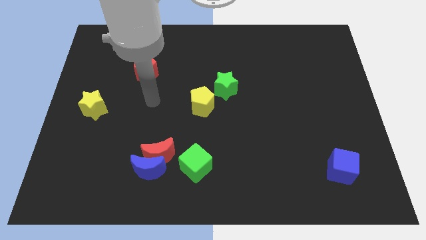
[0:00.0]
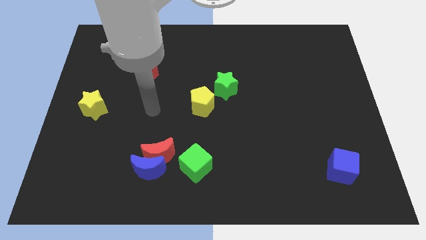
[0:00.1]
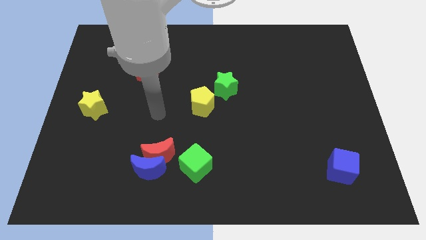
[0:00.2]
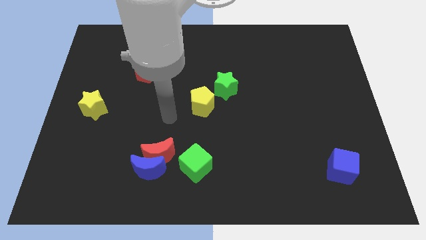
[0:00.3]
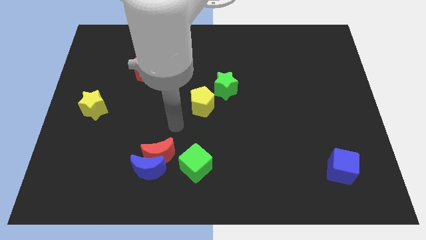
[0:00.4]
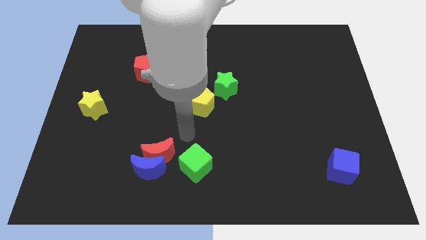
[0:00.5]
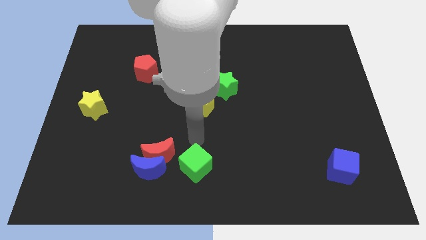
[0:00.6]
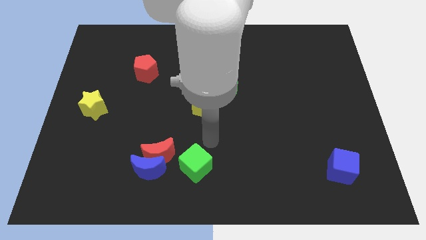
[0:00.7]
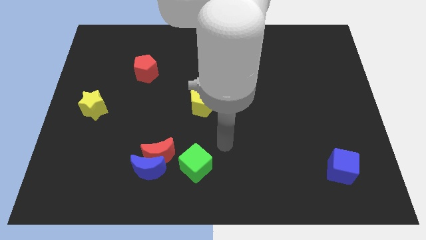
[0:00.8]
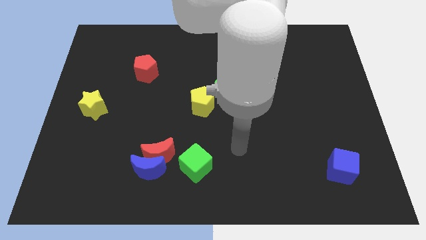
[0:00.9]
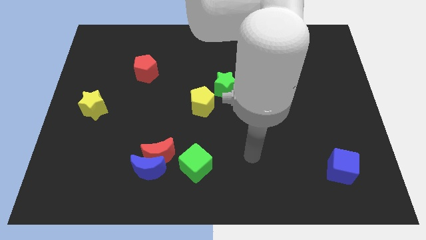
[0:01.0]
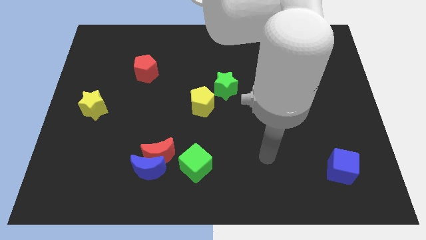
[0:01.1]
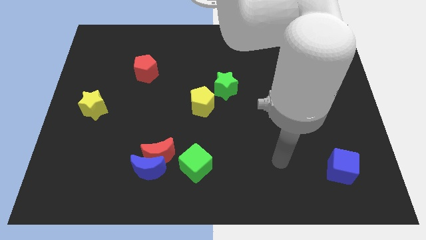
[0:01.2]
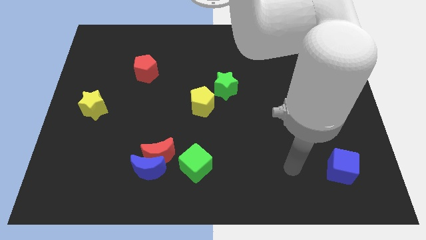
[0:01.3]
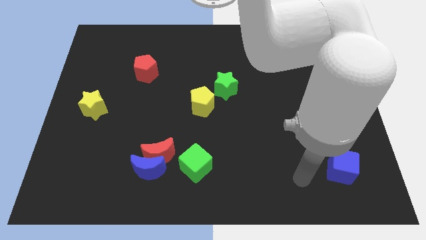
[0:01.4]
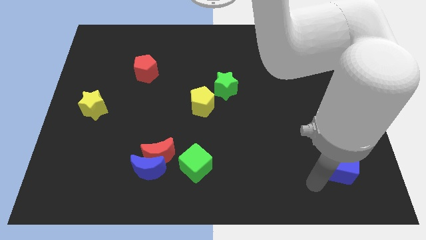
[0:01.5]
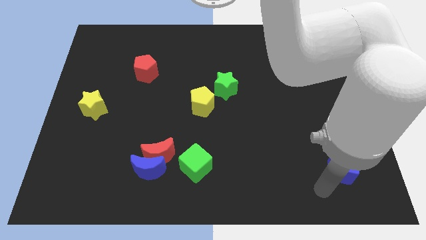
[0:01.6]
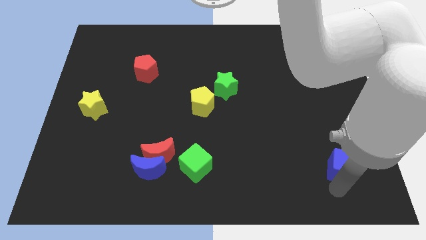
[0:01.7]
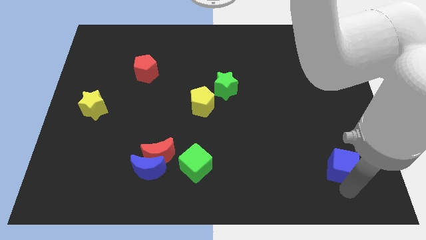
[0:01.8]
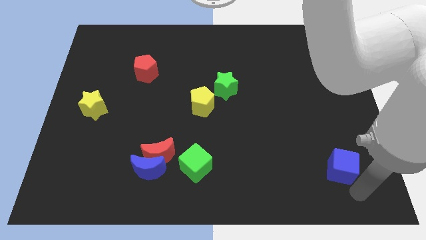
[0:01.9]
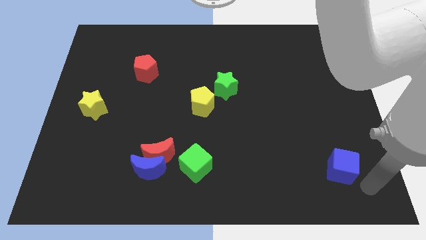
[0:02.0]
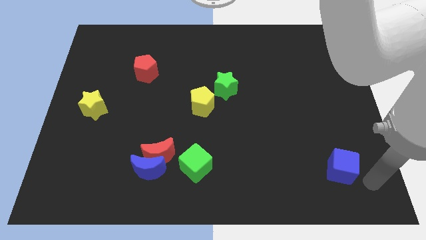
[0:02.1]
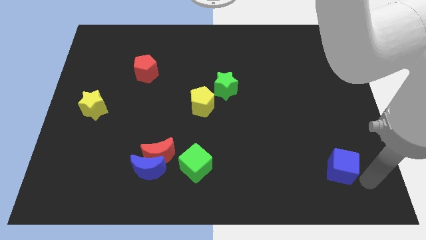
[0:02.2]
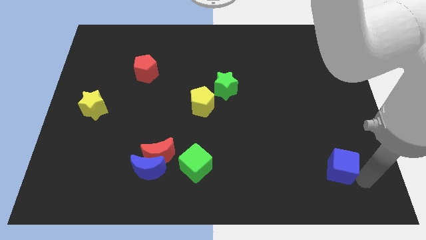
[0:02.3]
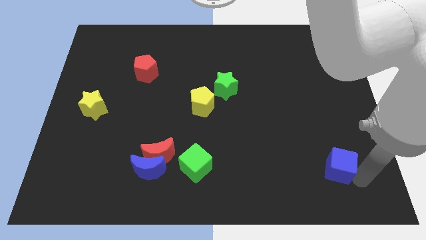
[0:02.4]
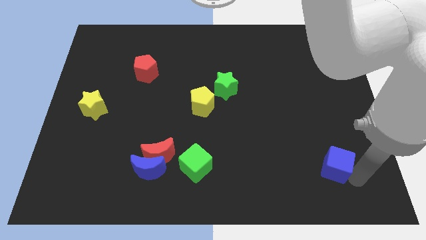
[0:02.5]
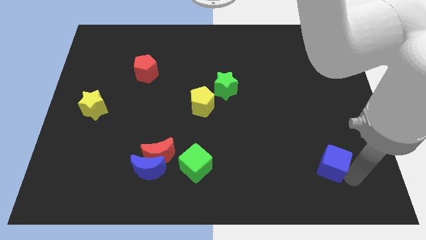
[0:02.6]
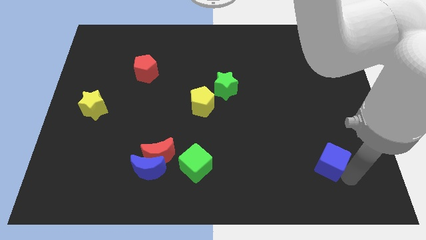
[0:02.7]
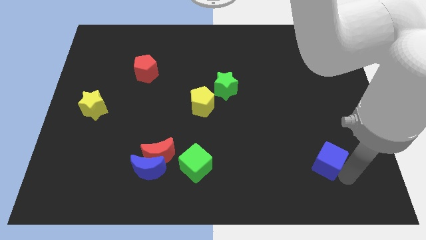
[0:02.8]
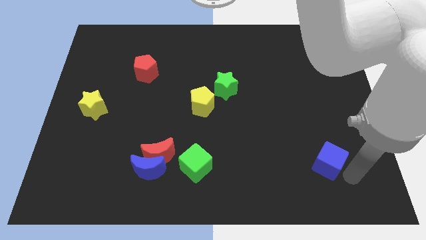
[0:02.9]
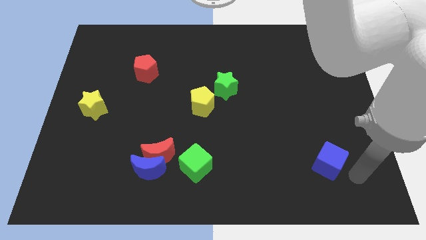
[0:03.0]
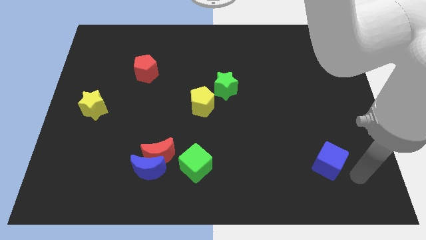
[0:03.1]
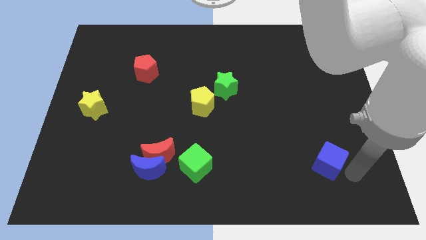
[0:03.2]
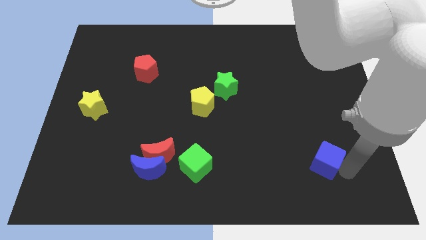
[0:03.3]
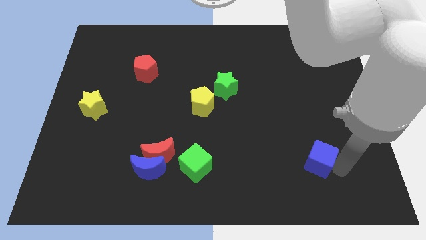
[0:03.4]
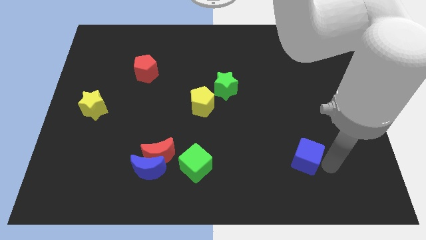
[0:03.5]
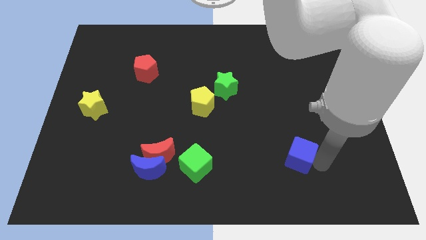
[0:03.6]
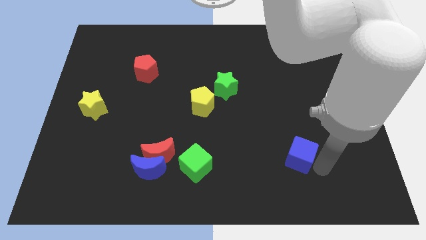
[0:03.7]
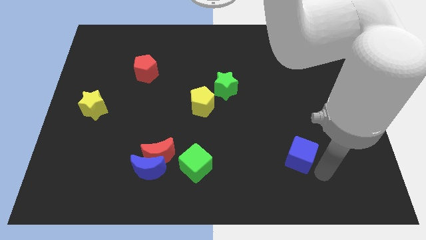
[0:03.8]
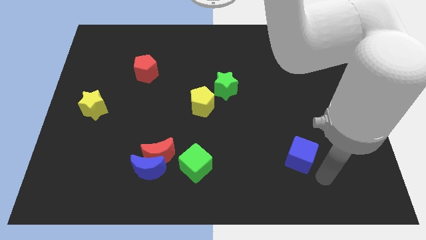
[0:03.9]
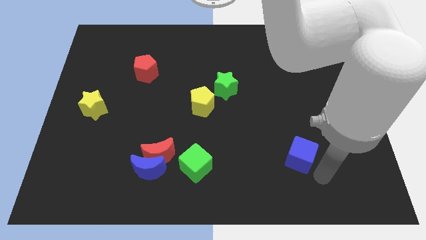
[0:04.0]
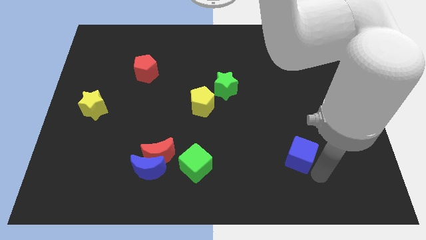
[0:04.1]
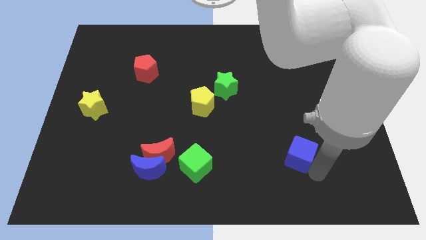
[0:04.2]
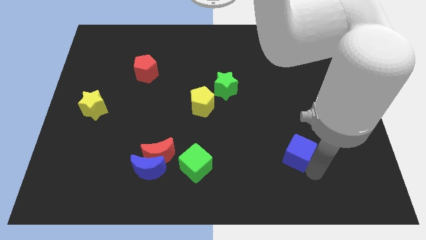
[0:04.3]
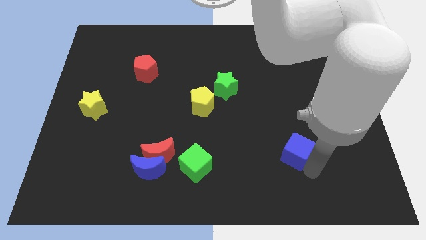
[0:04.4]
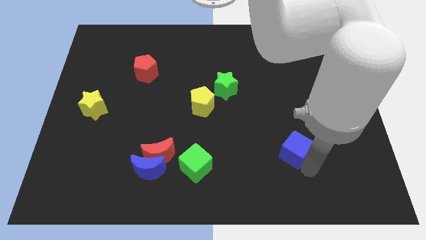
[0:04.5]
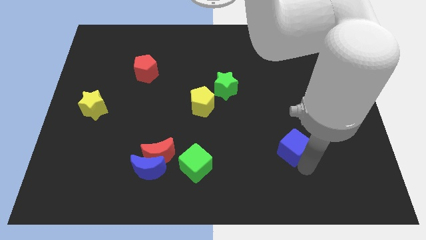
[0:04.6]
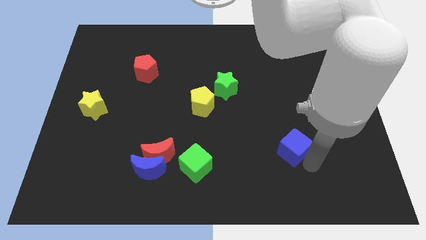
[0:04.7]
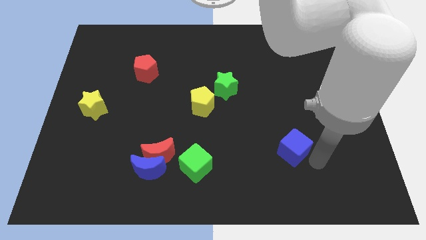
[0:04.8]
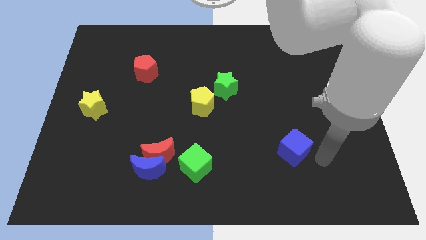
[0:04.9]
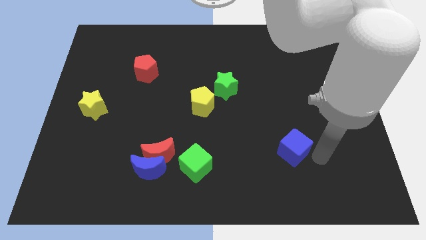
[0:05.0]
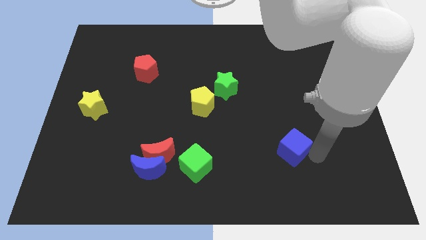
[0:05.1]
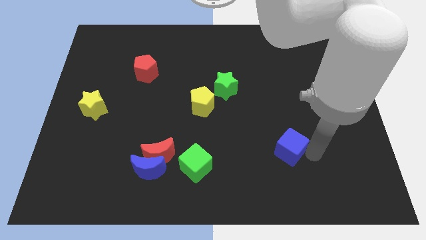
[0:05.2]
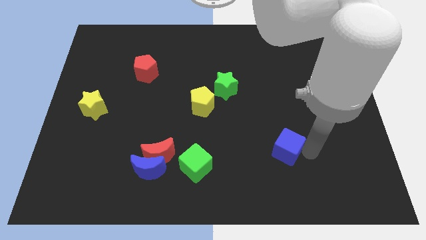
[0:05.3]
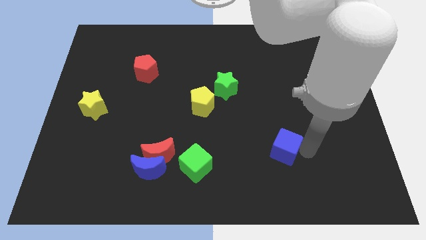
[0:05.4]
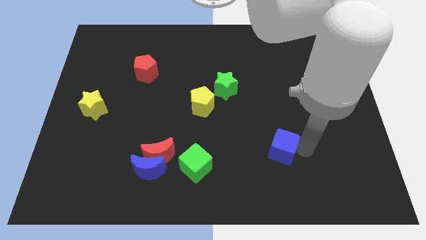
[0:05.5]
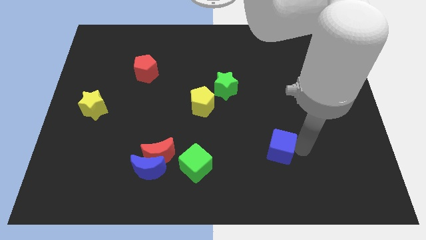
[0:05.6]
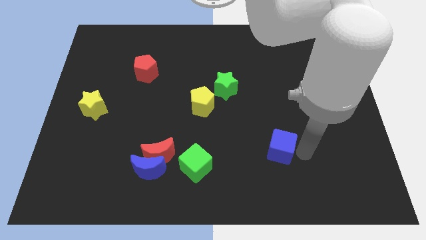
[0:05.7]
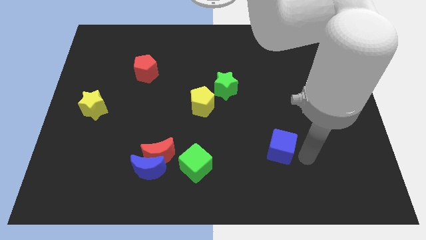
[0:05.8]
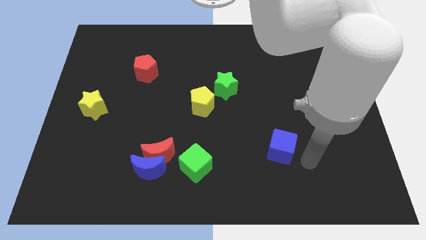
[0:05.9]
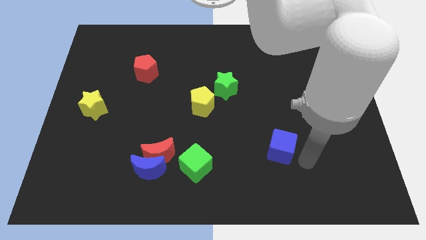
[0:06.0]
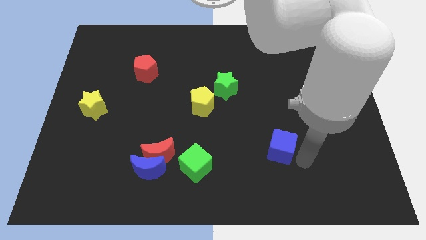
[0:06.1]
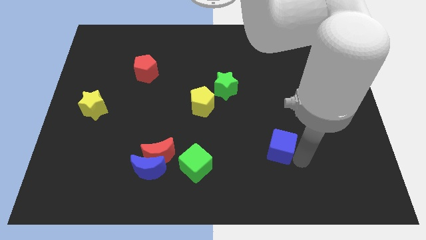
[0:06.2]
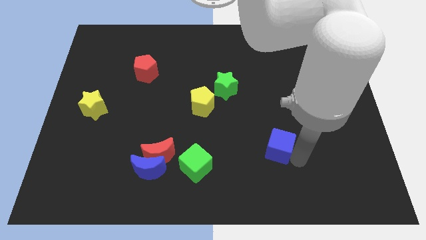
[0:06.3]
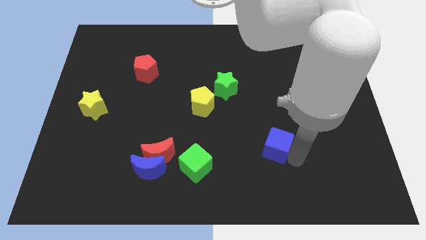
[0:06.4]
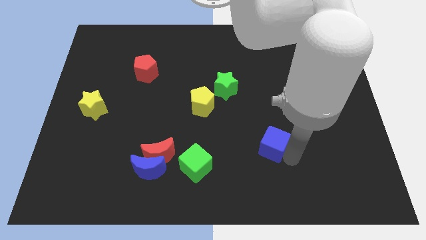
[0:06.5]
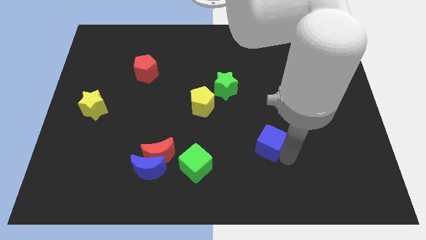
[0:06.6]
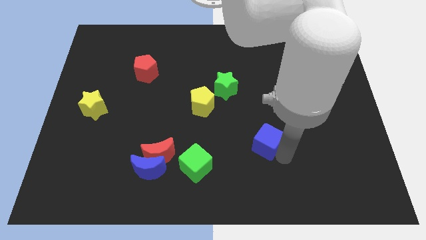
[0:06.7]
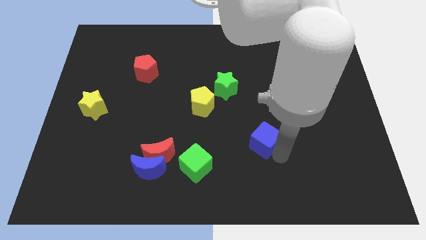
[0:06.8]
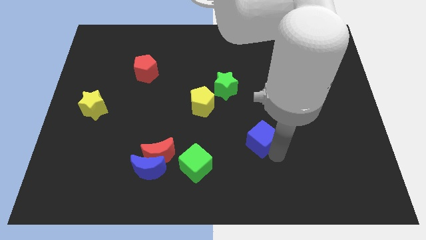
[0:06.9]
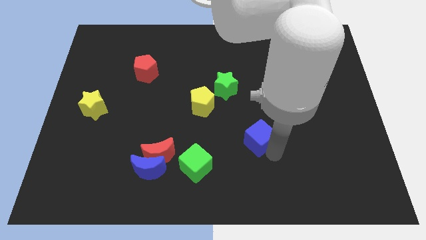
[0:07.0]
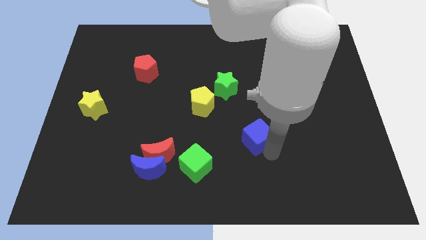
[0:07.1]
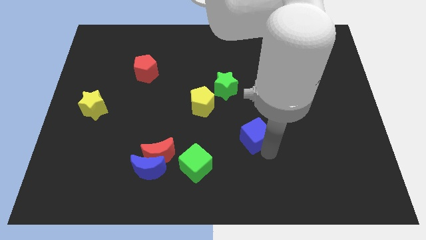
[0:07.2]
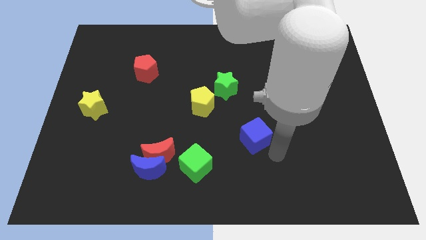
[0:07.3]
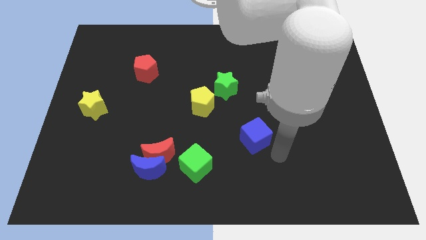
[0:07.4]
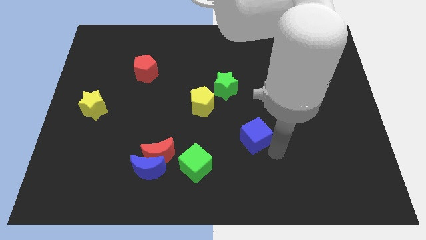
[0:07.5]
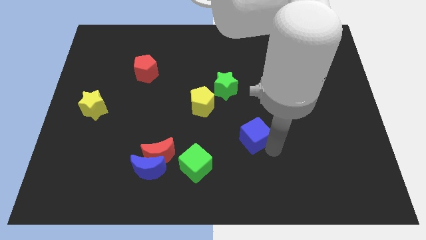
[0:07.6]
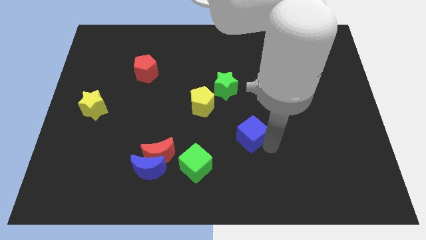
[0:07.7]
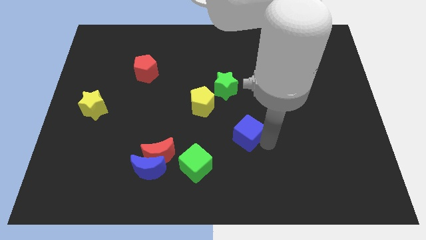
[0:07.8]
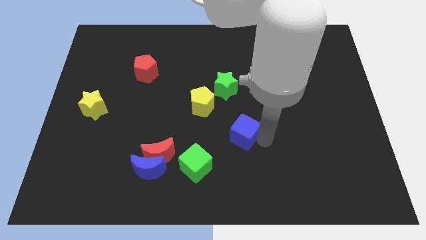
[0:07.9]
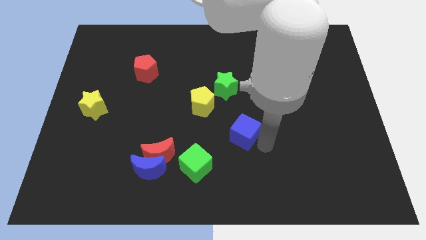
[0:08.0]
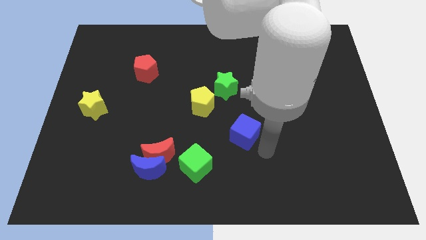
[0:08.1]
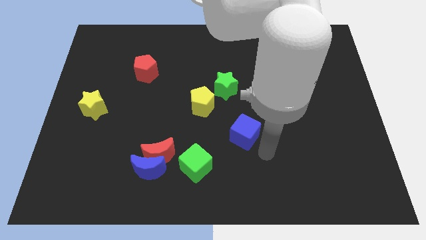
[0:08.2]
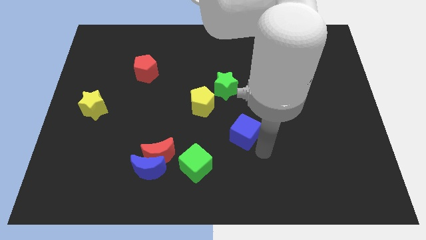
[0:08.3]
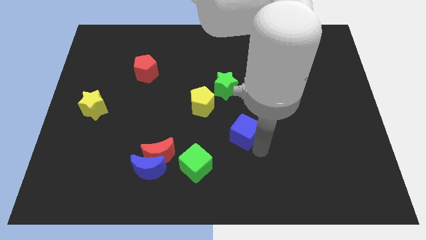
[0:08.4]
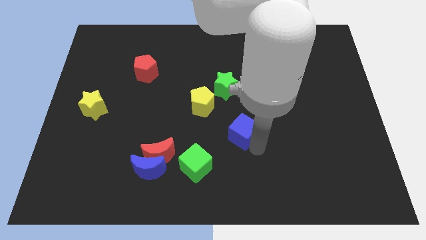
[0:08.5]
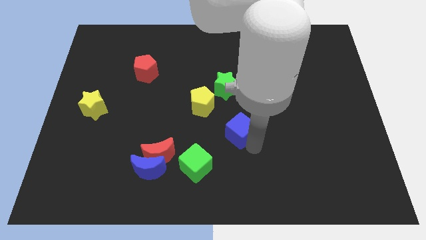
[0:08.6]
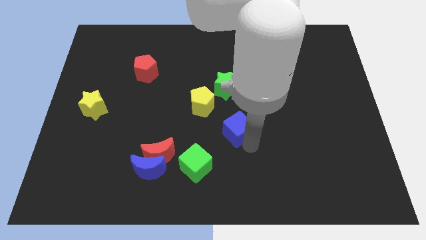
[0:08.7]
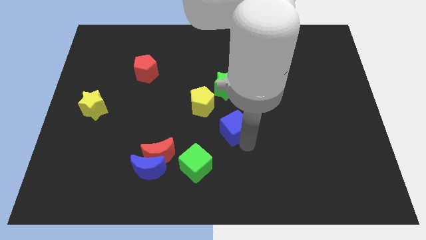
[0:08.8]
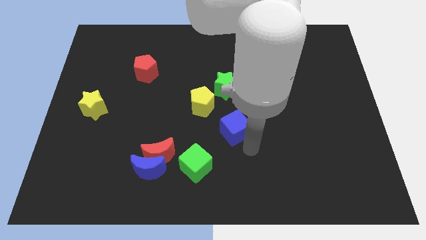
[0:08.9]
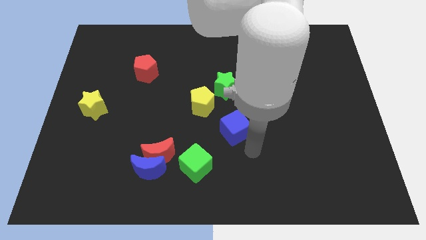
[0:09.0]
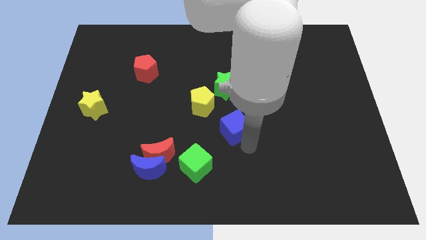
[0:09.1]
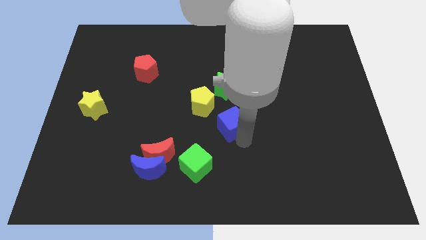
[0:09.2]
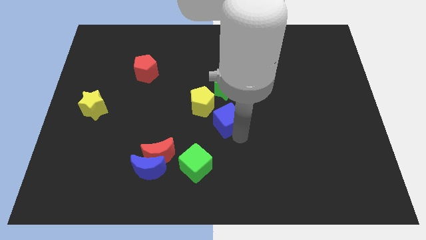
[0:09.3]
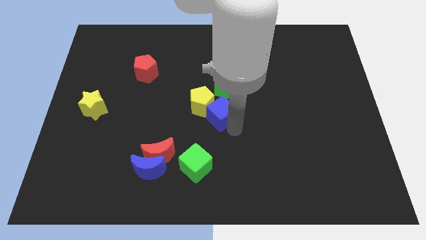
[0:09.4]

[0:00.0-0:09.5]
slide the blue cube towards the yellow pentagon
